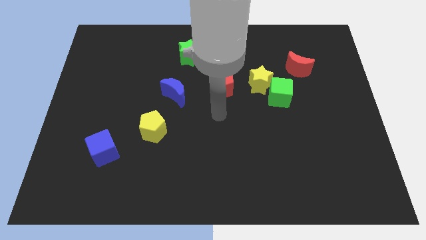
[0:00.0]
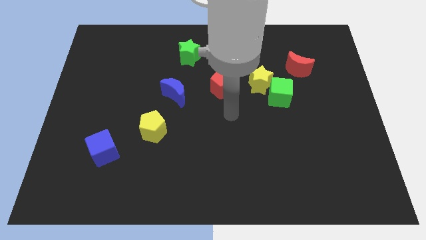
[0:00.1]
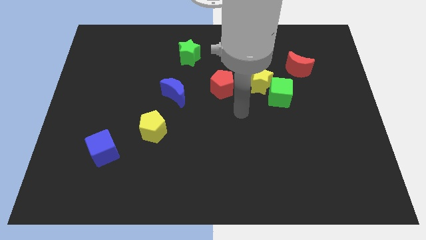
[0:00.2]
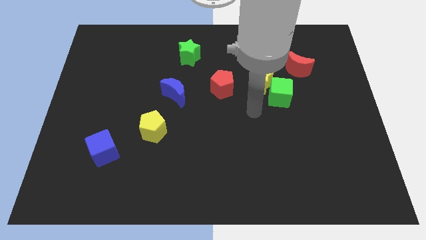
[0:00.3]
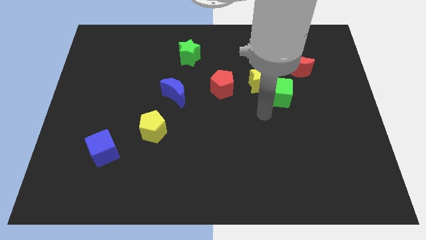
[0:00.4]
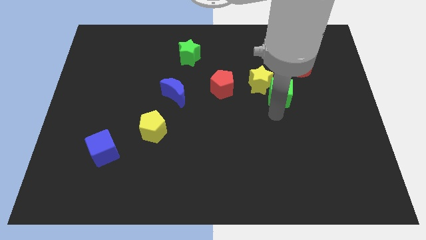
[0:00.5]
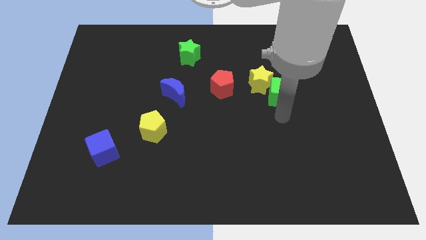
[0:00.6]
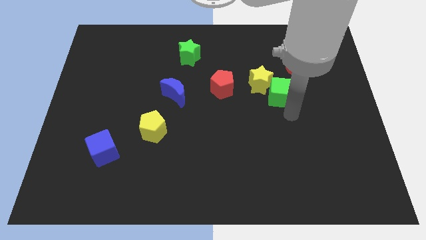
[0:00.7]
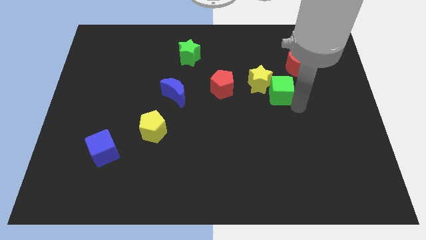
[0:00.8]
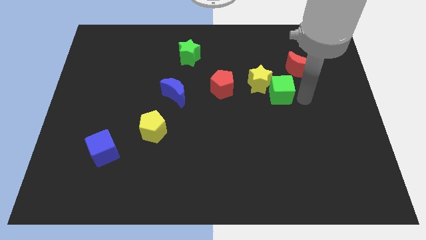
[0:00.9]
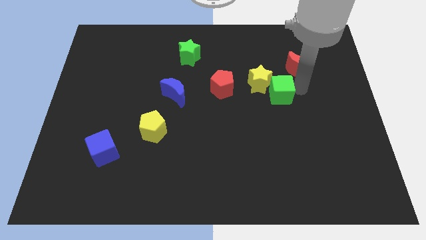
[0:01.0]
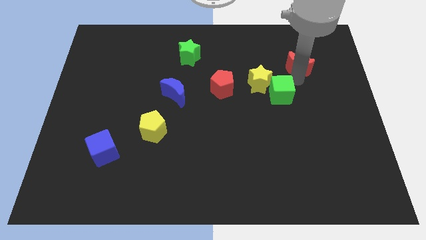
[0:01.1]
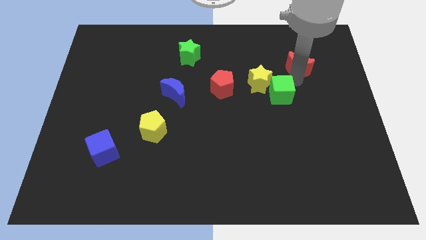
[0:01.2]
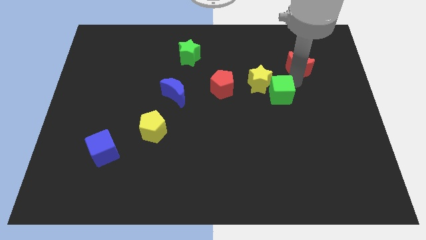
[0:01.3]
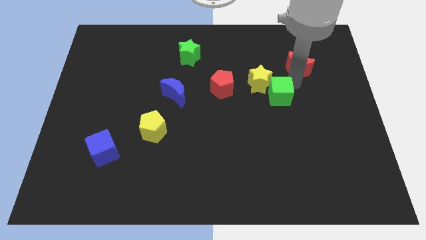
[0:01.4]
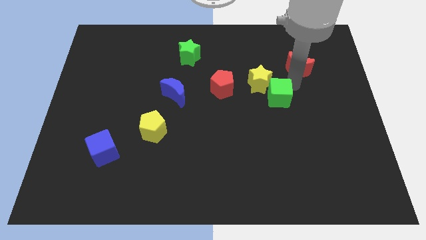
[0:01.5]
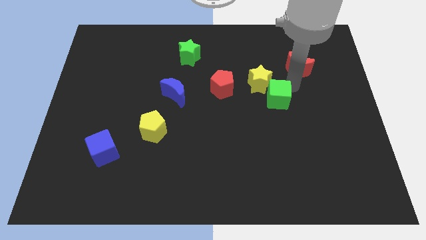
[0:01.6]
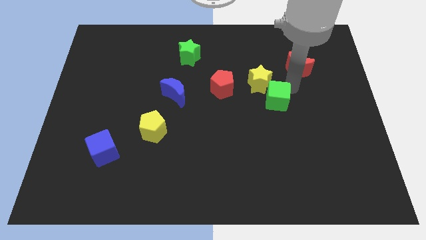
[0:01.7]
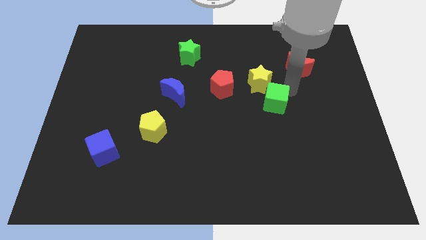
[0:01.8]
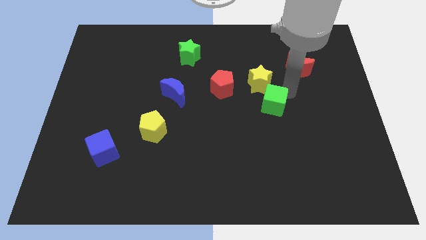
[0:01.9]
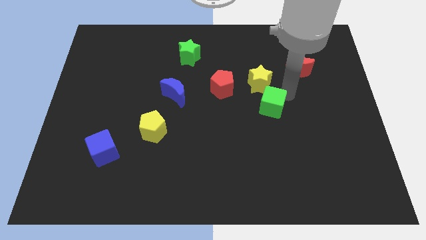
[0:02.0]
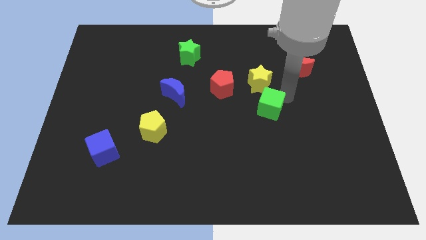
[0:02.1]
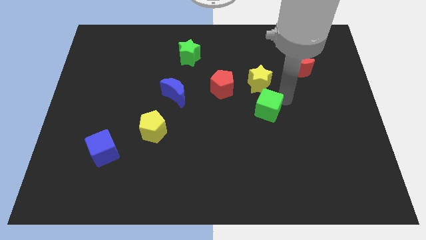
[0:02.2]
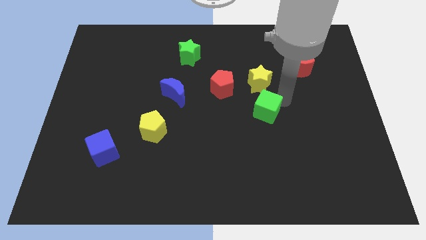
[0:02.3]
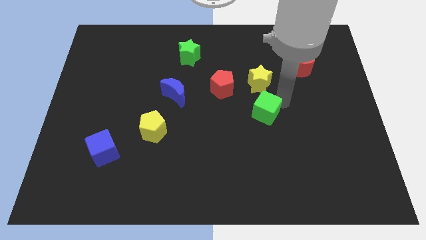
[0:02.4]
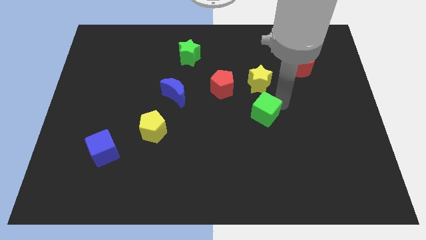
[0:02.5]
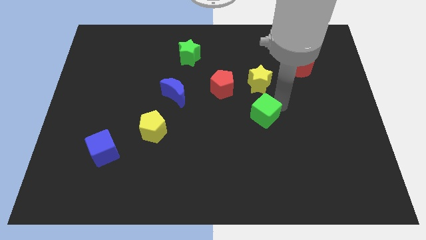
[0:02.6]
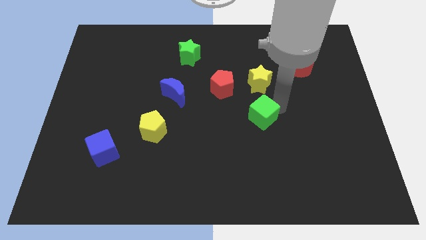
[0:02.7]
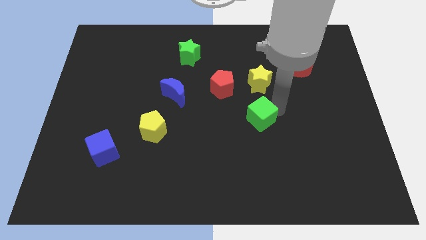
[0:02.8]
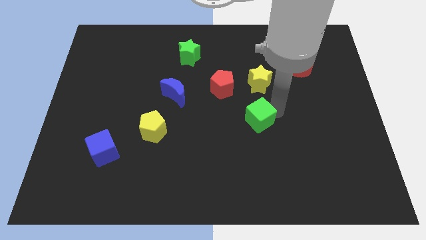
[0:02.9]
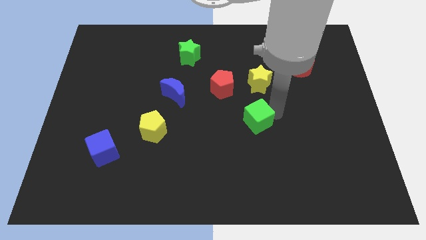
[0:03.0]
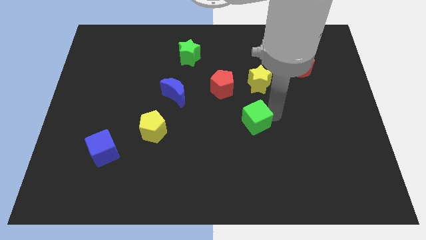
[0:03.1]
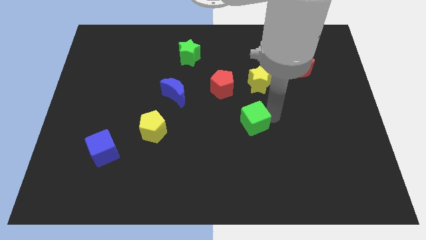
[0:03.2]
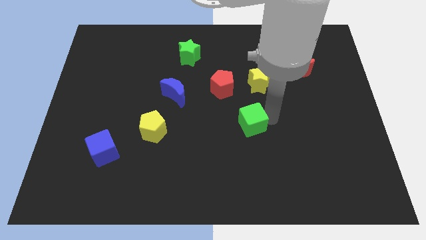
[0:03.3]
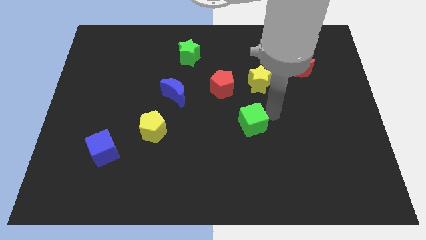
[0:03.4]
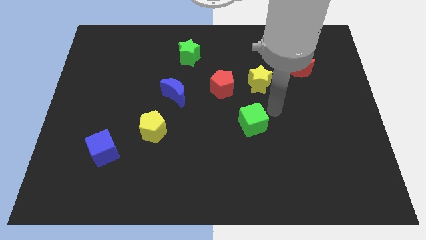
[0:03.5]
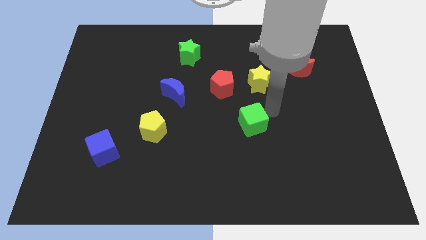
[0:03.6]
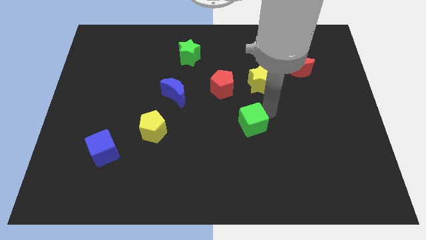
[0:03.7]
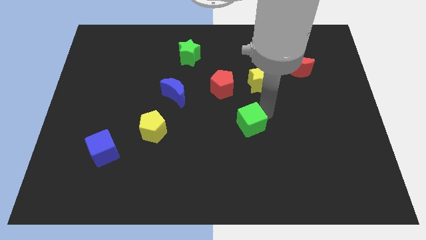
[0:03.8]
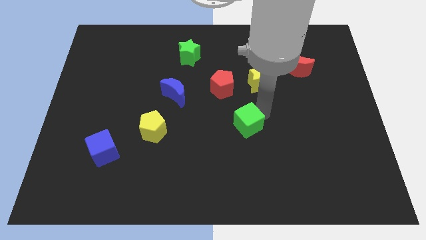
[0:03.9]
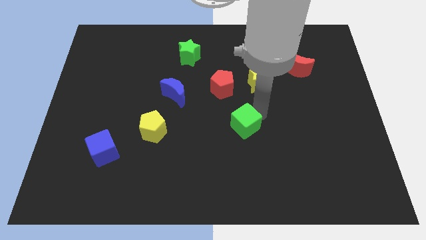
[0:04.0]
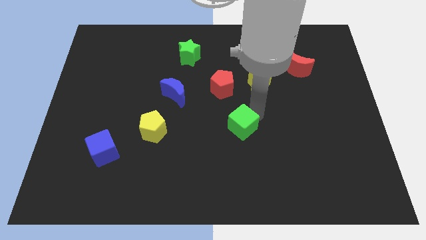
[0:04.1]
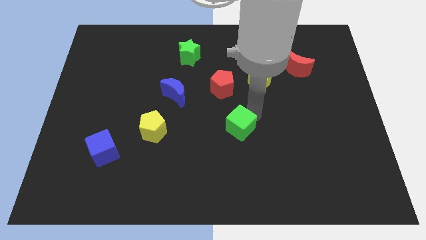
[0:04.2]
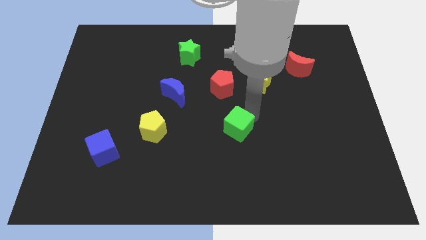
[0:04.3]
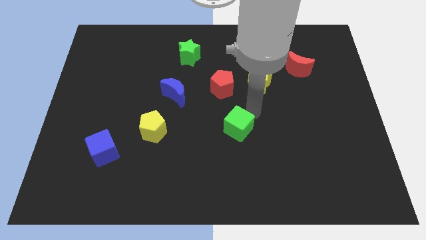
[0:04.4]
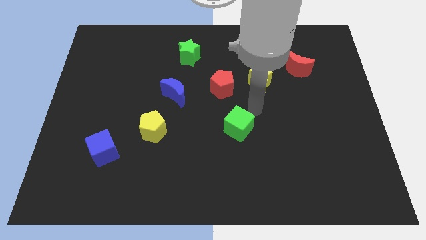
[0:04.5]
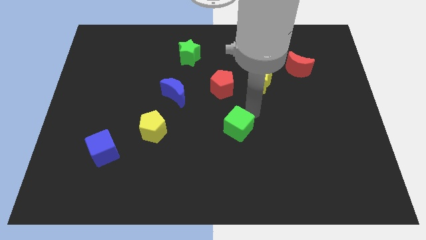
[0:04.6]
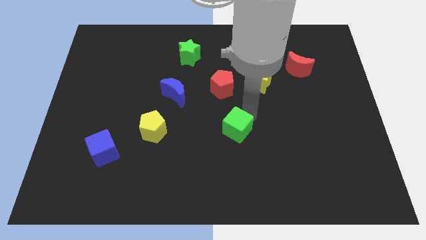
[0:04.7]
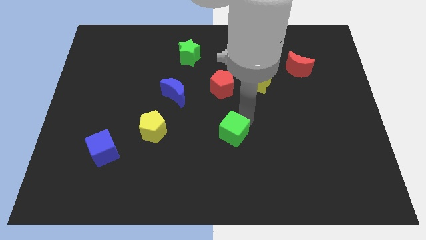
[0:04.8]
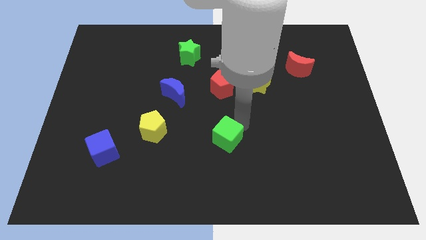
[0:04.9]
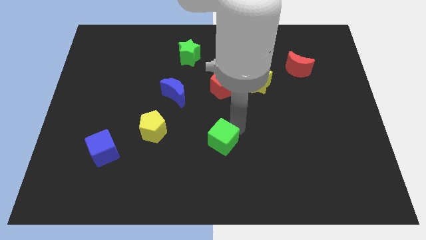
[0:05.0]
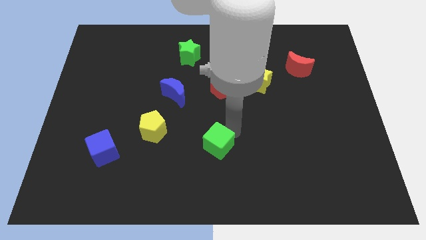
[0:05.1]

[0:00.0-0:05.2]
slide the green cube down and then left

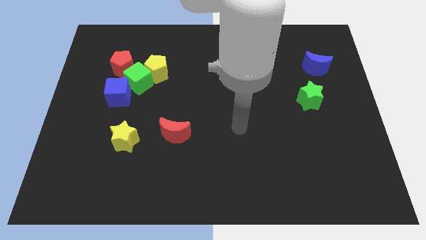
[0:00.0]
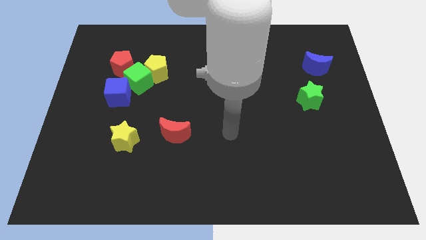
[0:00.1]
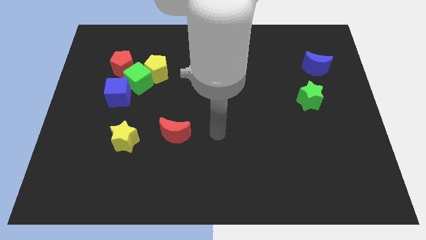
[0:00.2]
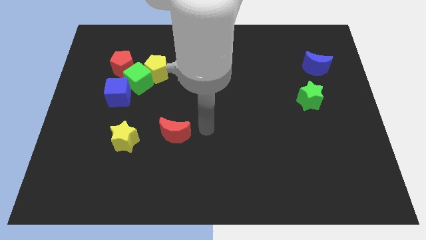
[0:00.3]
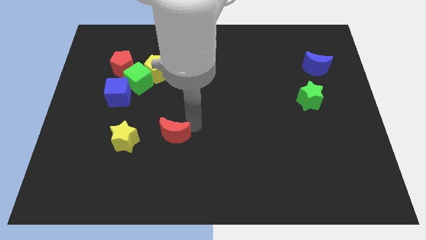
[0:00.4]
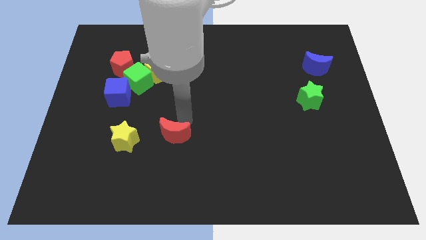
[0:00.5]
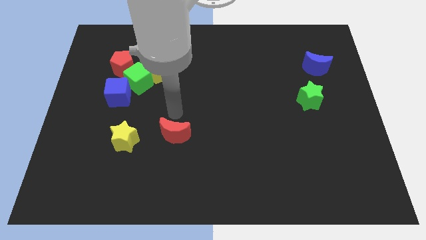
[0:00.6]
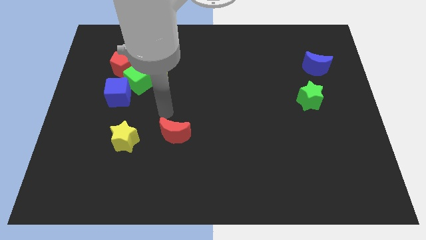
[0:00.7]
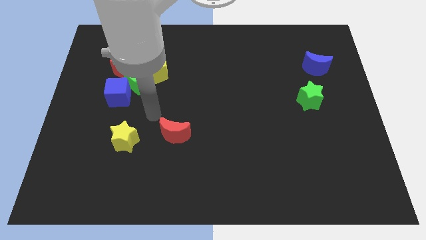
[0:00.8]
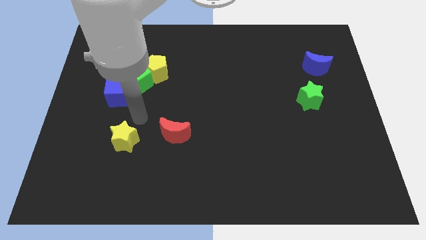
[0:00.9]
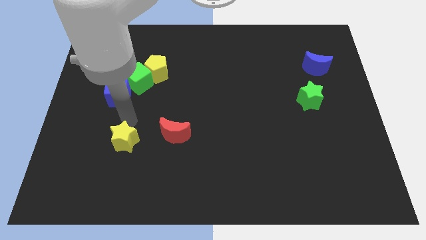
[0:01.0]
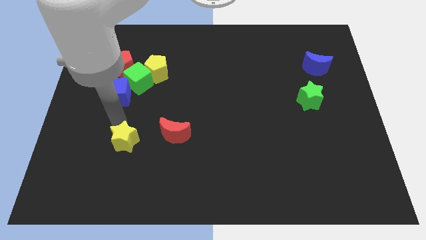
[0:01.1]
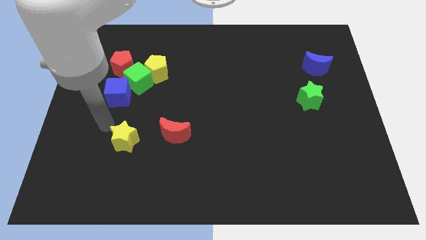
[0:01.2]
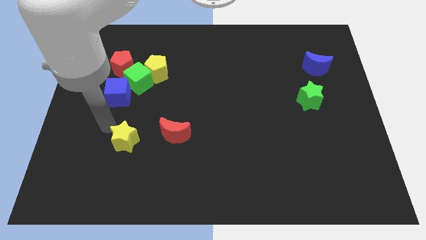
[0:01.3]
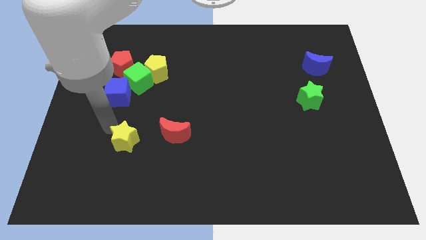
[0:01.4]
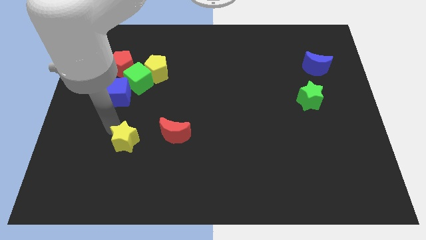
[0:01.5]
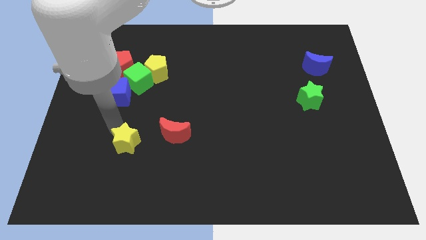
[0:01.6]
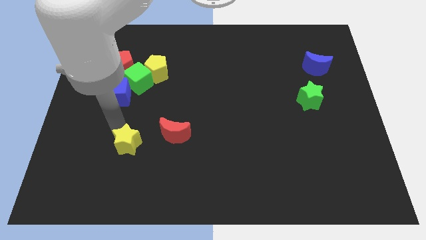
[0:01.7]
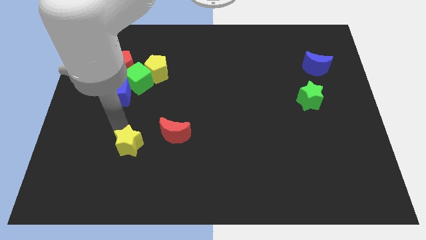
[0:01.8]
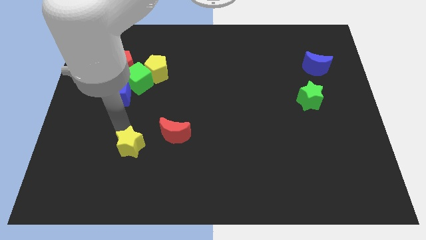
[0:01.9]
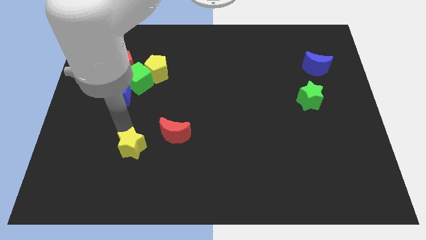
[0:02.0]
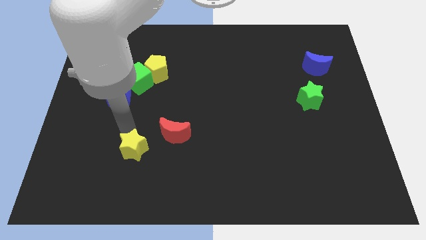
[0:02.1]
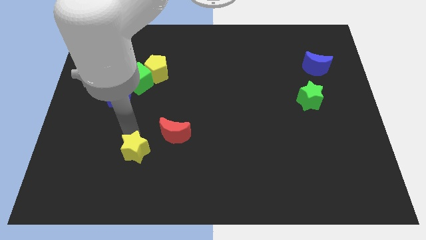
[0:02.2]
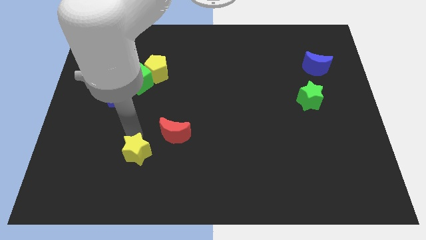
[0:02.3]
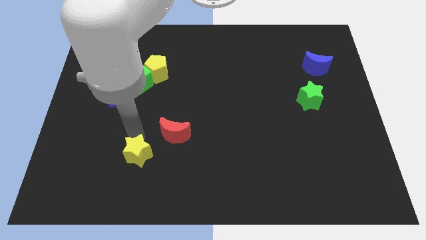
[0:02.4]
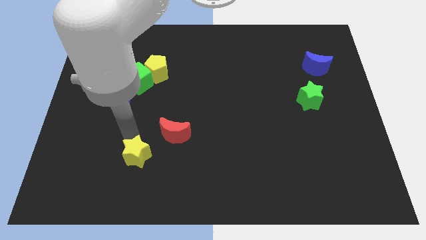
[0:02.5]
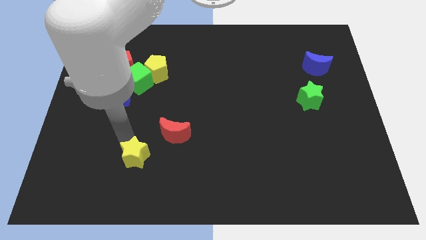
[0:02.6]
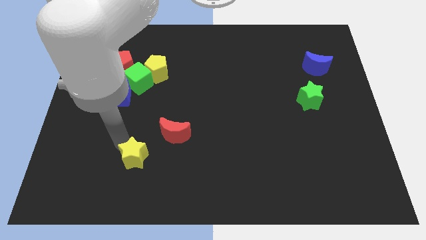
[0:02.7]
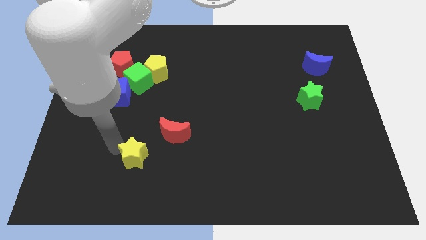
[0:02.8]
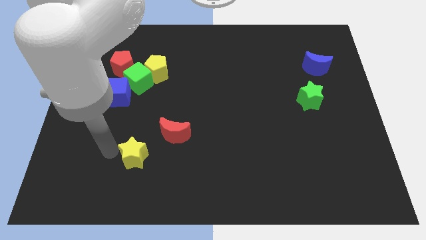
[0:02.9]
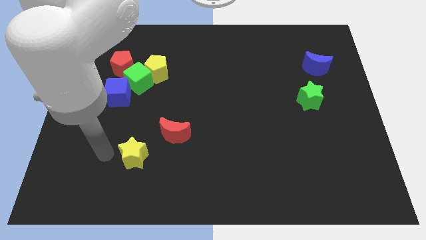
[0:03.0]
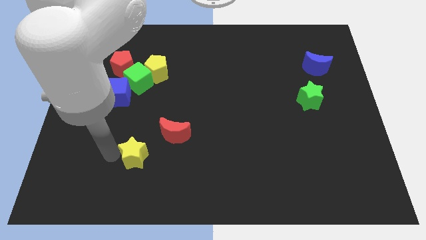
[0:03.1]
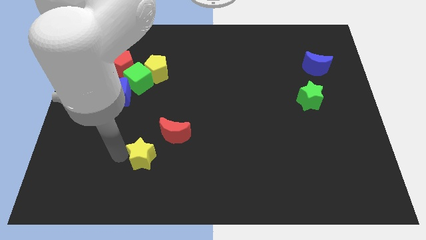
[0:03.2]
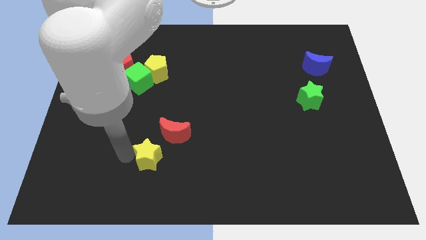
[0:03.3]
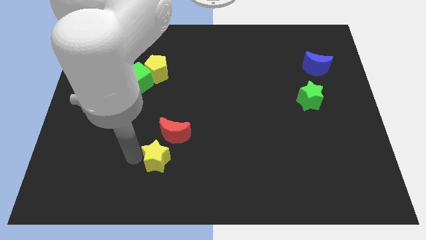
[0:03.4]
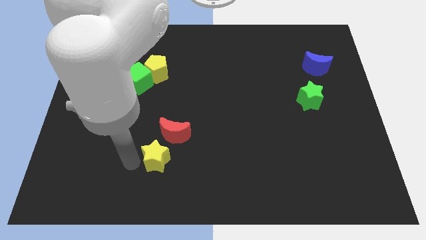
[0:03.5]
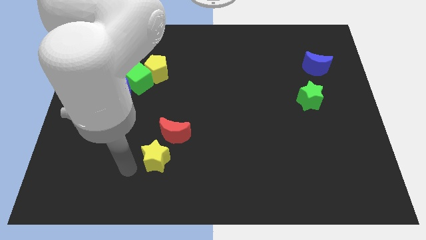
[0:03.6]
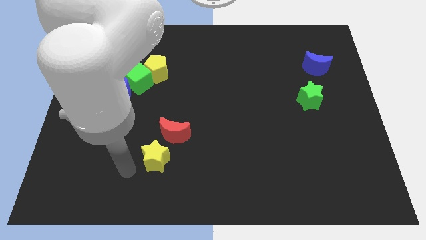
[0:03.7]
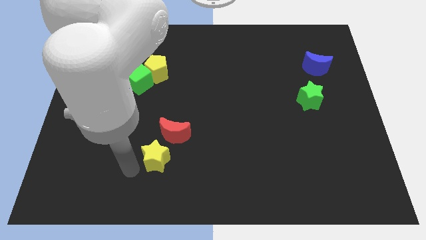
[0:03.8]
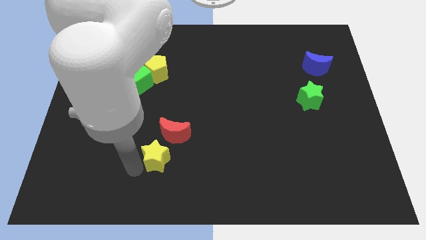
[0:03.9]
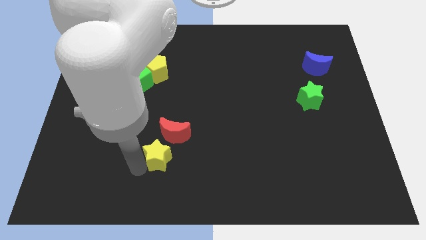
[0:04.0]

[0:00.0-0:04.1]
move the yellow star right slightly
